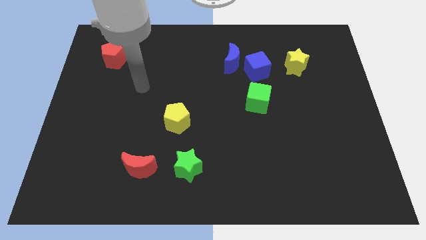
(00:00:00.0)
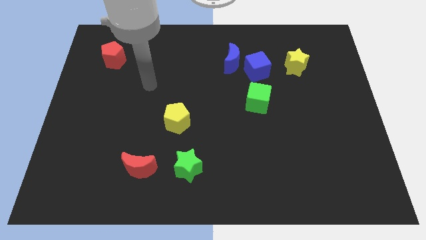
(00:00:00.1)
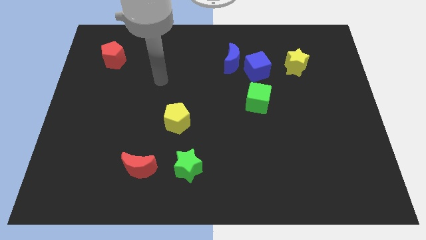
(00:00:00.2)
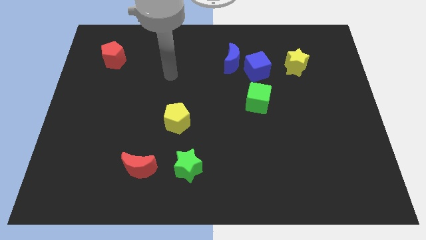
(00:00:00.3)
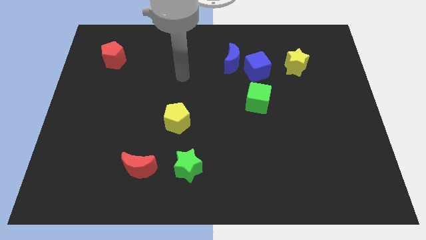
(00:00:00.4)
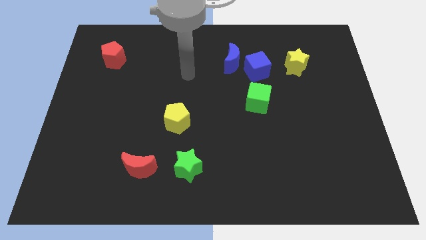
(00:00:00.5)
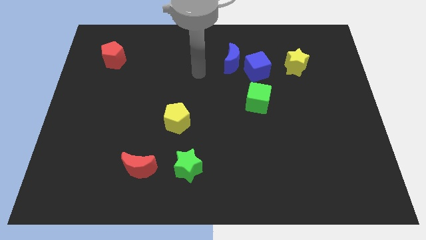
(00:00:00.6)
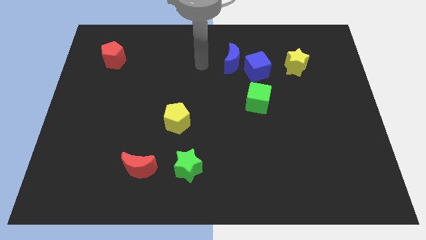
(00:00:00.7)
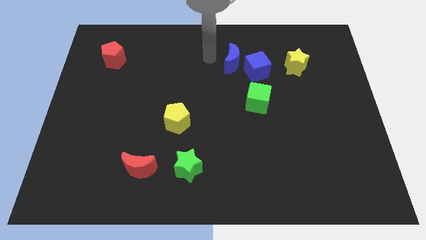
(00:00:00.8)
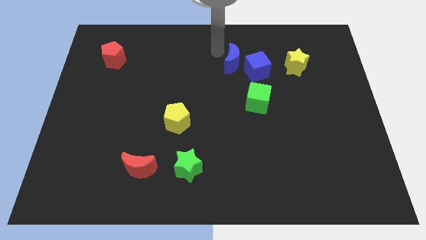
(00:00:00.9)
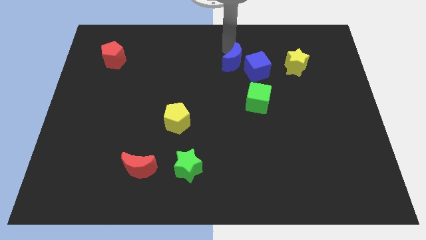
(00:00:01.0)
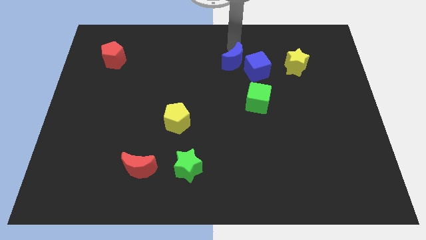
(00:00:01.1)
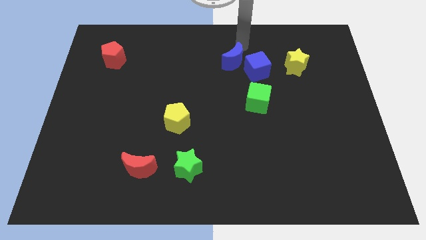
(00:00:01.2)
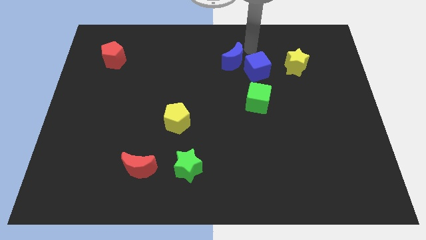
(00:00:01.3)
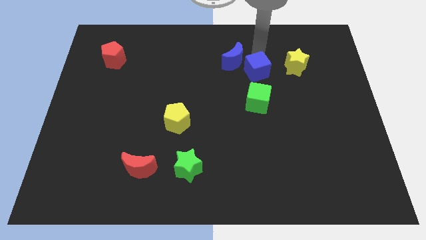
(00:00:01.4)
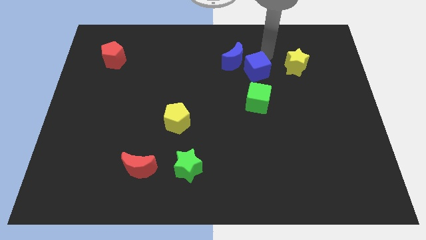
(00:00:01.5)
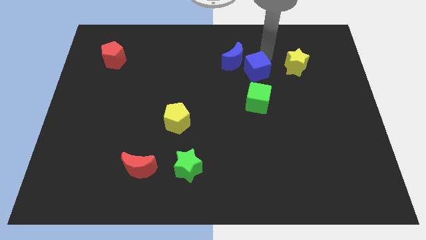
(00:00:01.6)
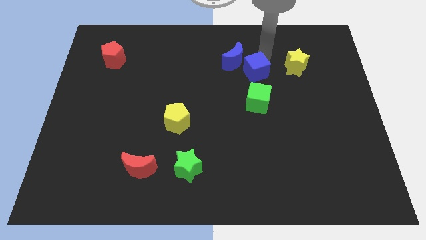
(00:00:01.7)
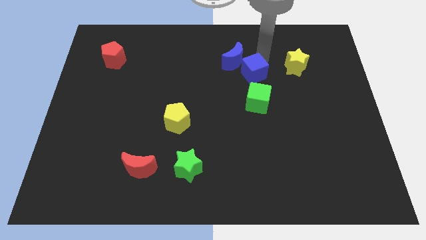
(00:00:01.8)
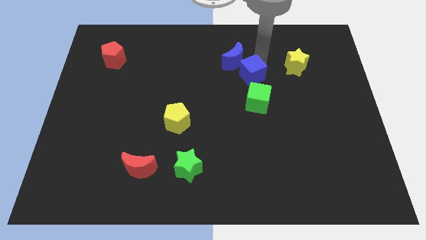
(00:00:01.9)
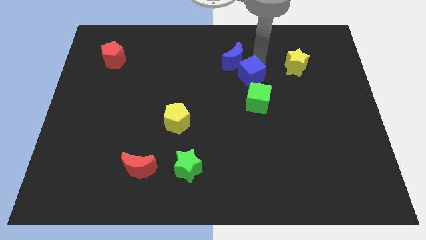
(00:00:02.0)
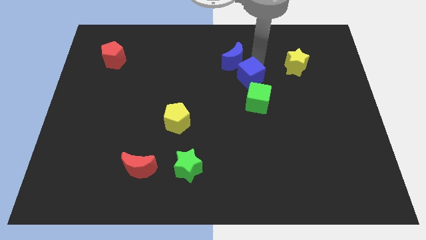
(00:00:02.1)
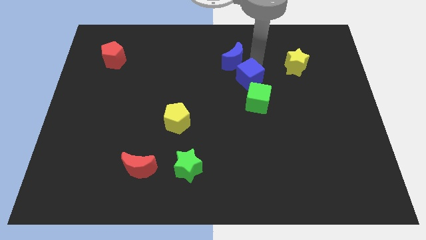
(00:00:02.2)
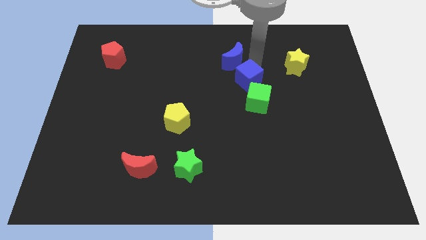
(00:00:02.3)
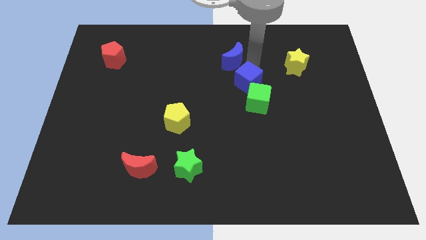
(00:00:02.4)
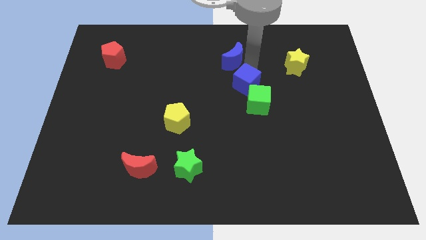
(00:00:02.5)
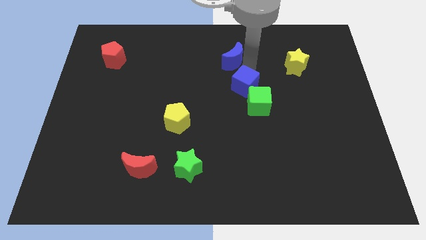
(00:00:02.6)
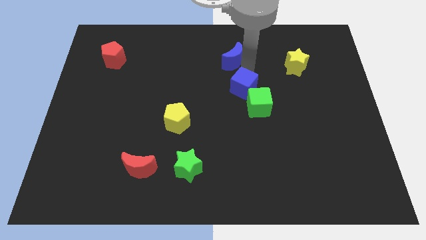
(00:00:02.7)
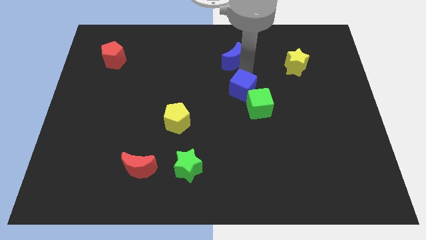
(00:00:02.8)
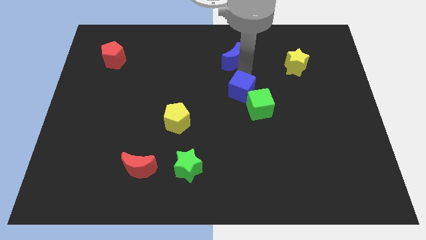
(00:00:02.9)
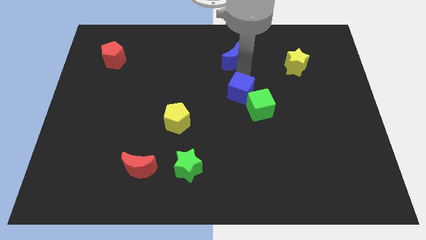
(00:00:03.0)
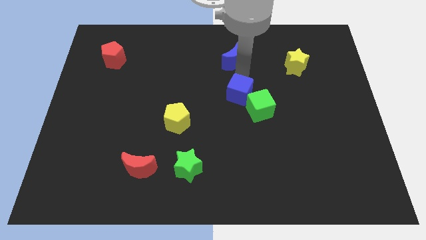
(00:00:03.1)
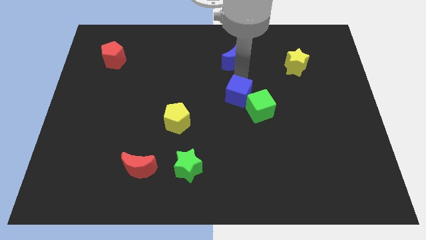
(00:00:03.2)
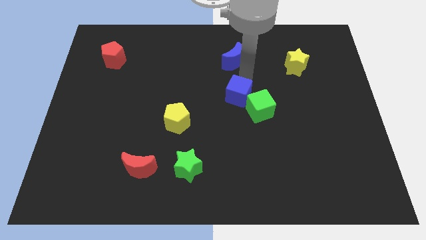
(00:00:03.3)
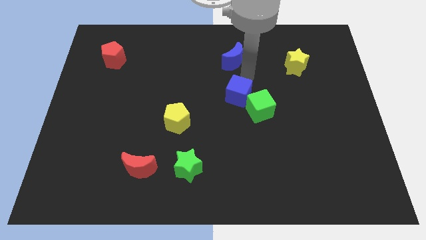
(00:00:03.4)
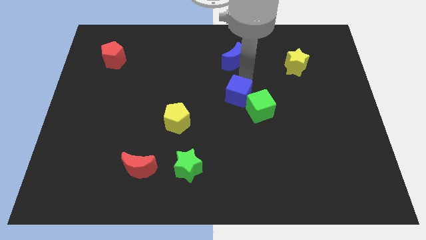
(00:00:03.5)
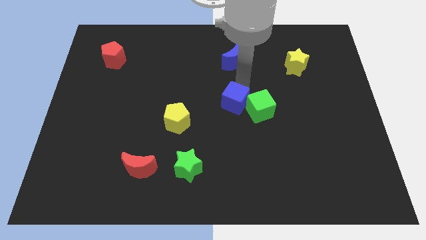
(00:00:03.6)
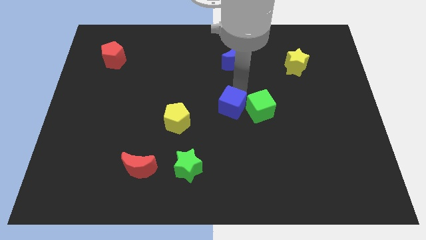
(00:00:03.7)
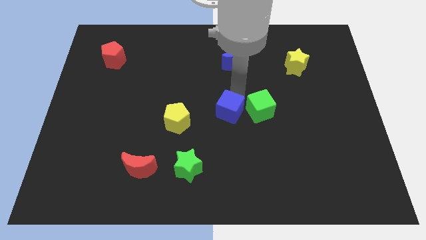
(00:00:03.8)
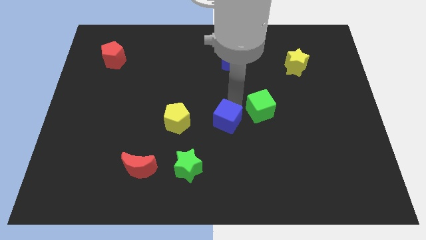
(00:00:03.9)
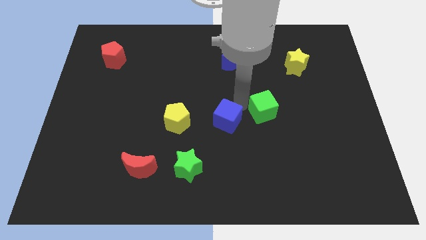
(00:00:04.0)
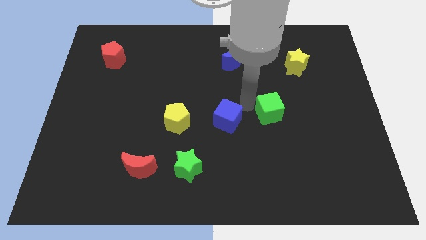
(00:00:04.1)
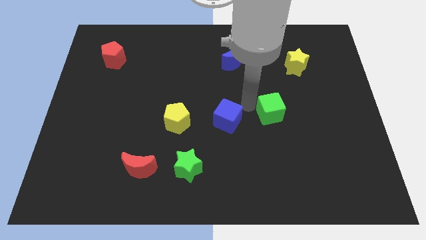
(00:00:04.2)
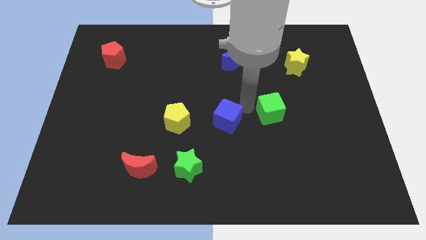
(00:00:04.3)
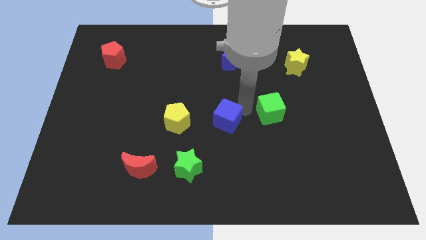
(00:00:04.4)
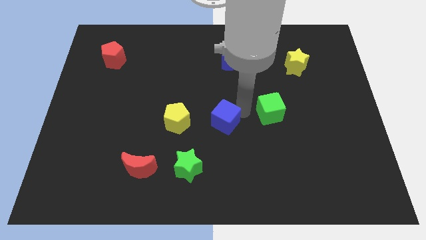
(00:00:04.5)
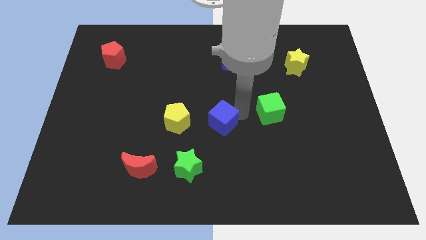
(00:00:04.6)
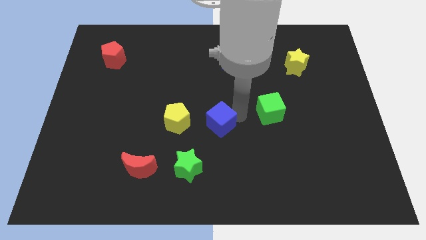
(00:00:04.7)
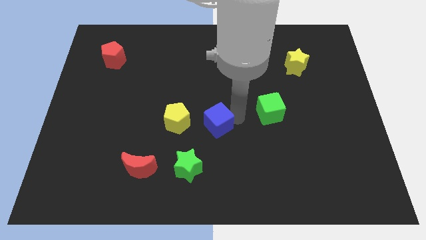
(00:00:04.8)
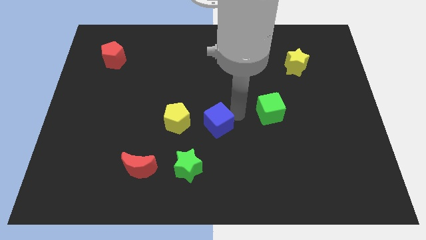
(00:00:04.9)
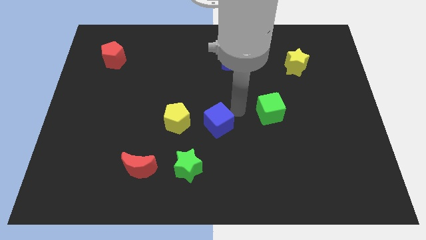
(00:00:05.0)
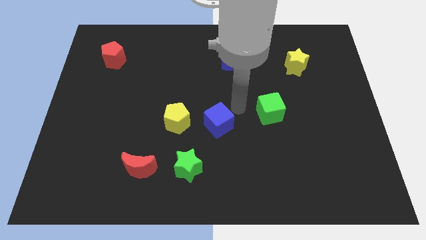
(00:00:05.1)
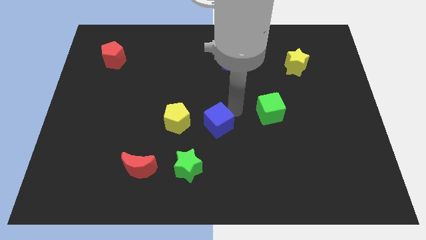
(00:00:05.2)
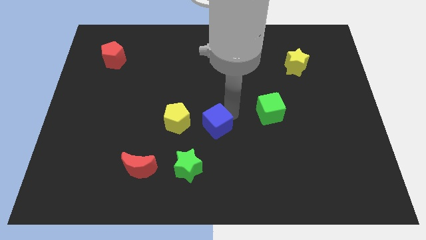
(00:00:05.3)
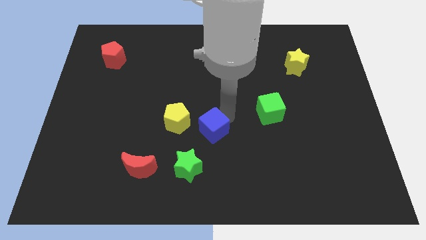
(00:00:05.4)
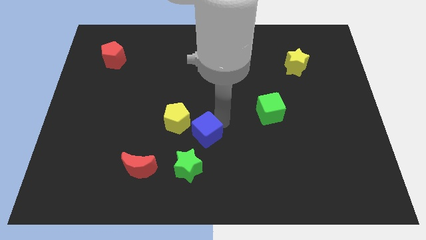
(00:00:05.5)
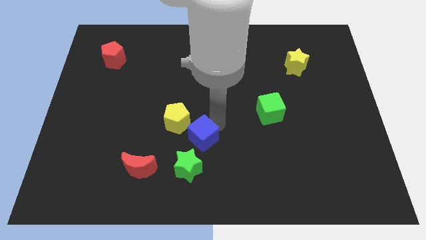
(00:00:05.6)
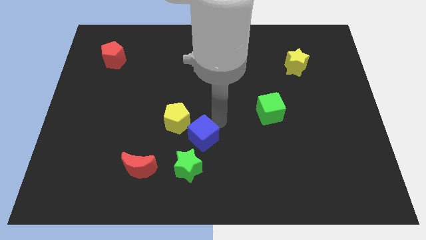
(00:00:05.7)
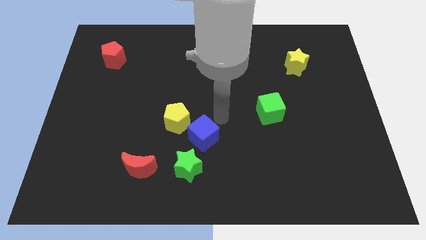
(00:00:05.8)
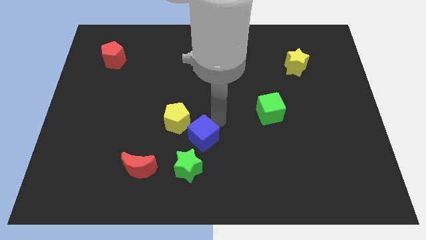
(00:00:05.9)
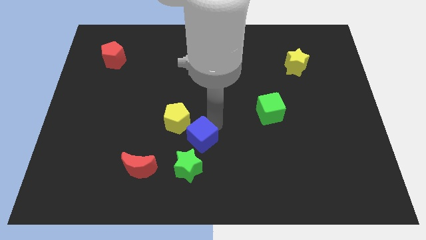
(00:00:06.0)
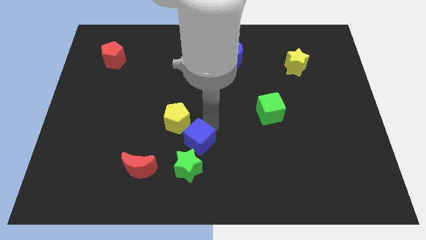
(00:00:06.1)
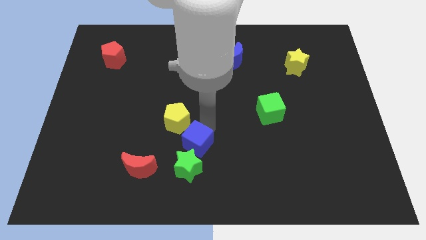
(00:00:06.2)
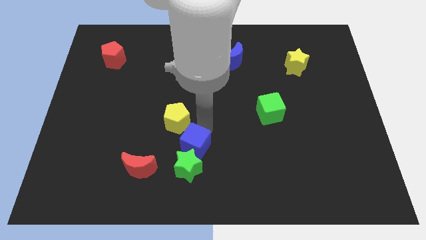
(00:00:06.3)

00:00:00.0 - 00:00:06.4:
slide the blue cube next to the green star
